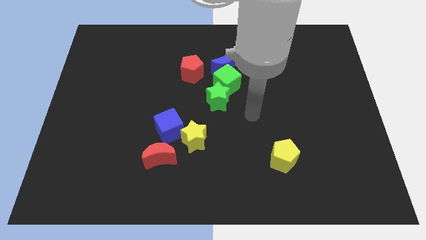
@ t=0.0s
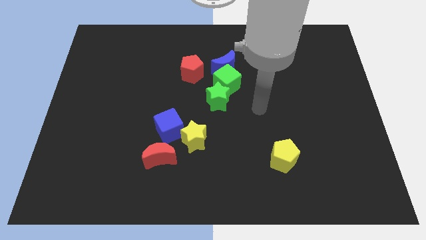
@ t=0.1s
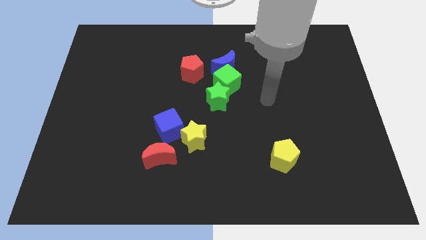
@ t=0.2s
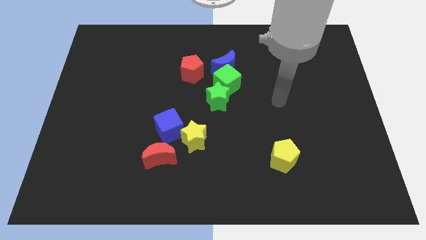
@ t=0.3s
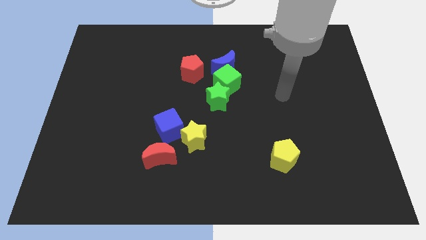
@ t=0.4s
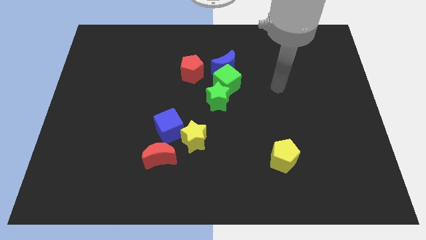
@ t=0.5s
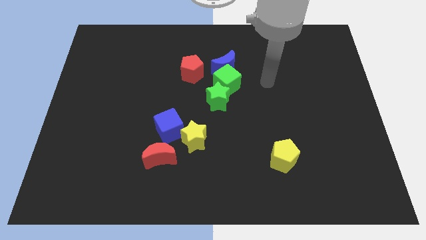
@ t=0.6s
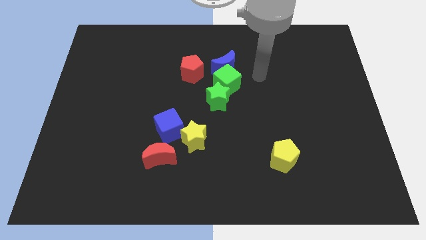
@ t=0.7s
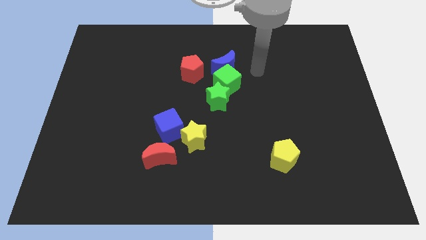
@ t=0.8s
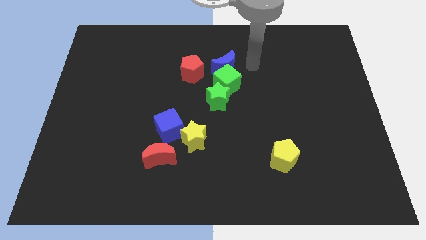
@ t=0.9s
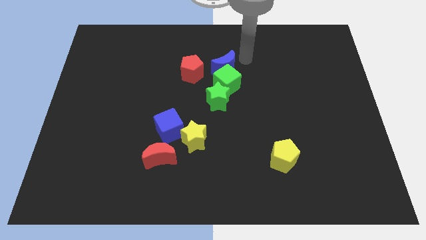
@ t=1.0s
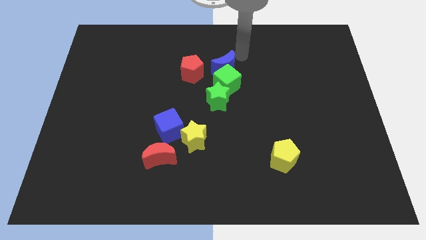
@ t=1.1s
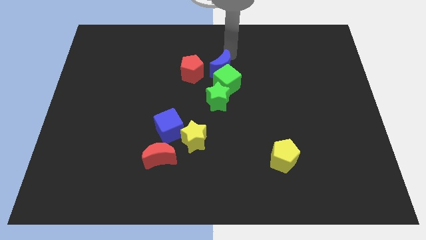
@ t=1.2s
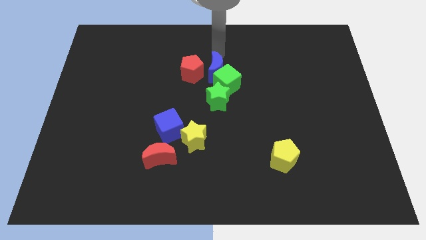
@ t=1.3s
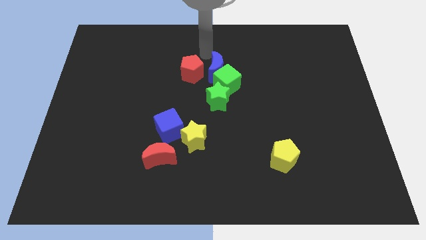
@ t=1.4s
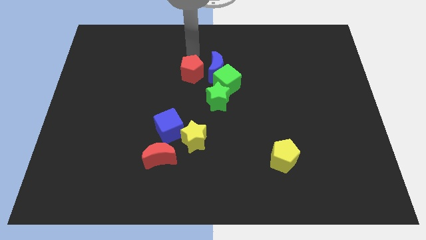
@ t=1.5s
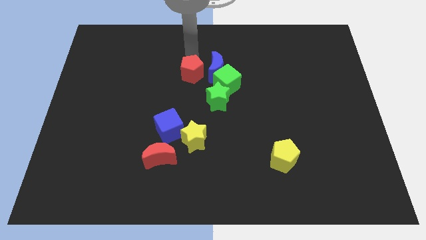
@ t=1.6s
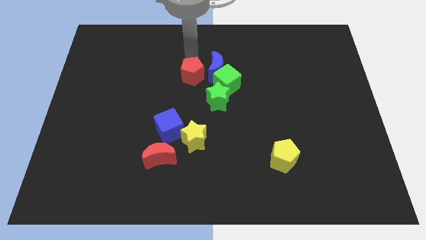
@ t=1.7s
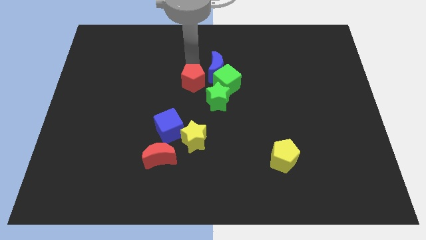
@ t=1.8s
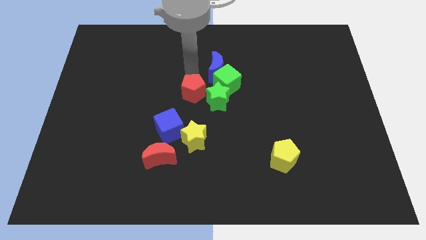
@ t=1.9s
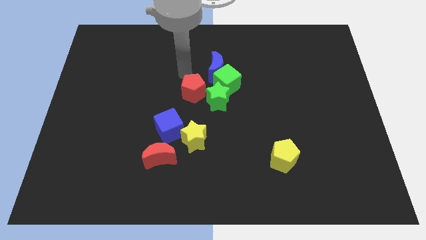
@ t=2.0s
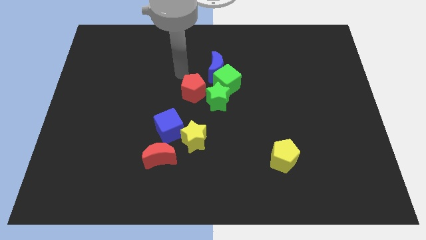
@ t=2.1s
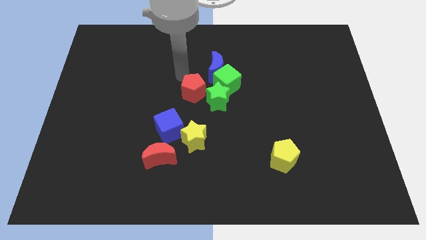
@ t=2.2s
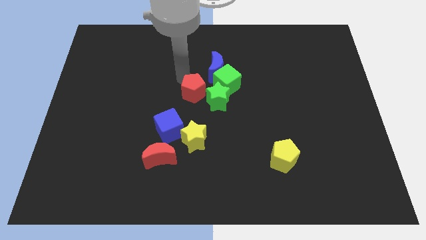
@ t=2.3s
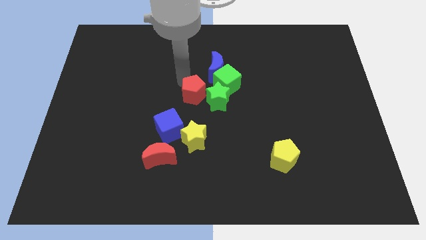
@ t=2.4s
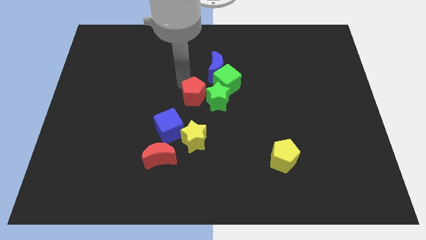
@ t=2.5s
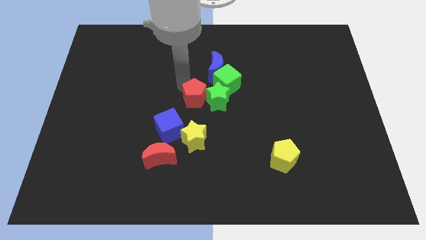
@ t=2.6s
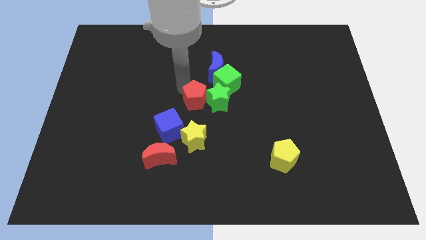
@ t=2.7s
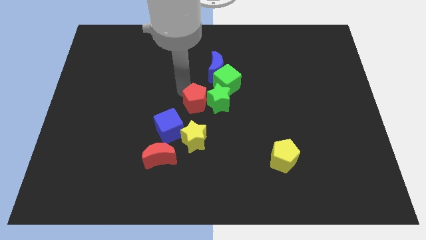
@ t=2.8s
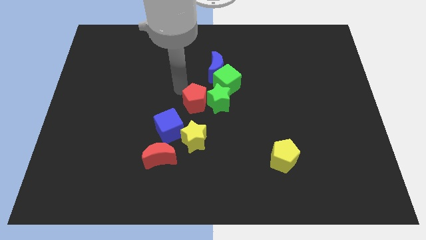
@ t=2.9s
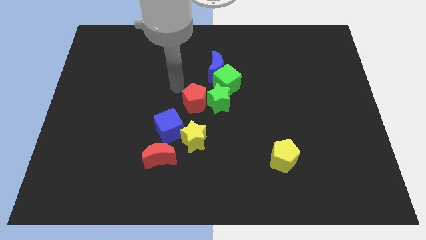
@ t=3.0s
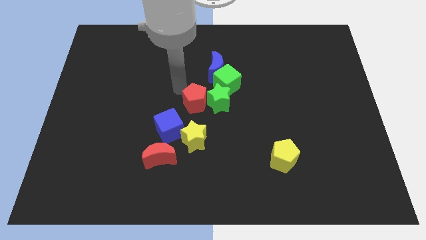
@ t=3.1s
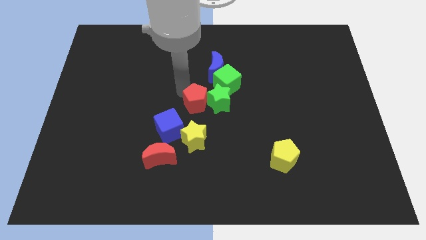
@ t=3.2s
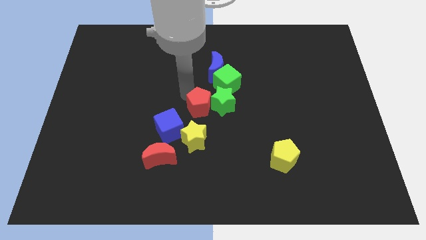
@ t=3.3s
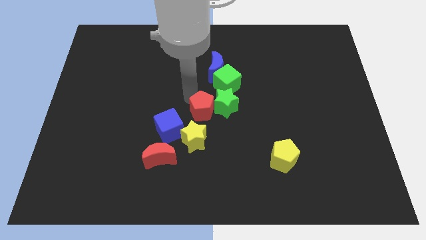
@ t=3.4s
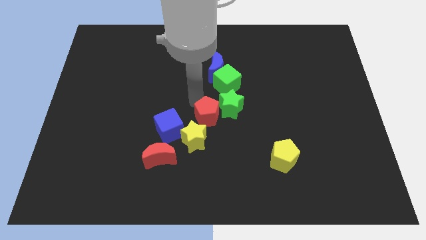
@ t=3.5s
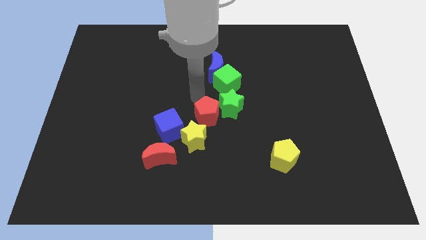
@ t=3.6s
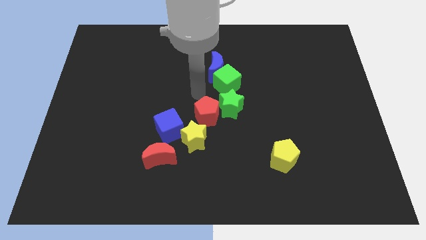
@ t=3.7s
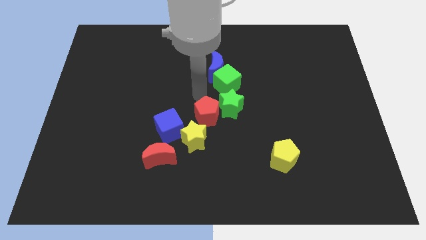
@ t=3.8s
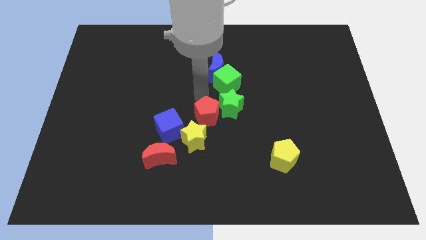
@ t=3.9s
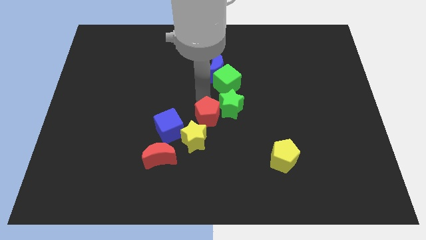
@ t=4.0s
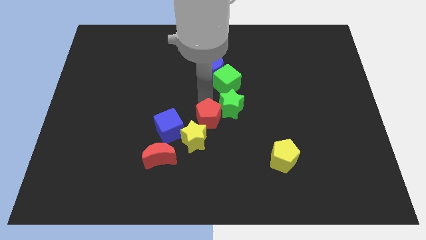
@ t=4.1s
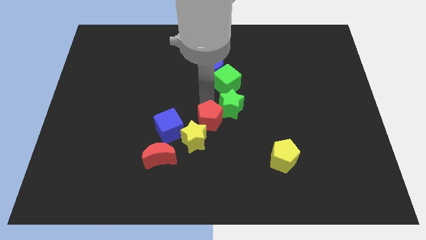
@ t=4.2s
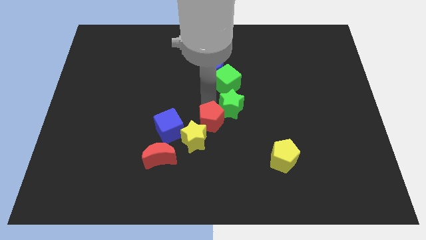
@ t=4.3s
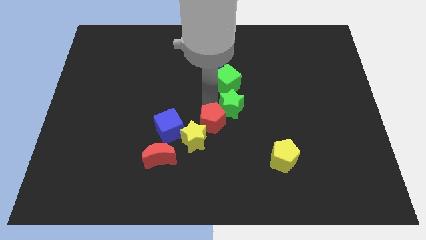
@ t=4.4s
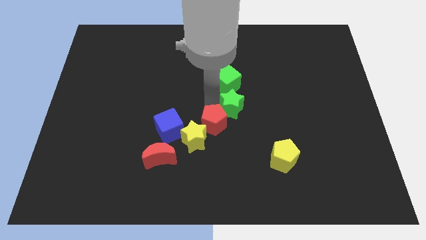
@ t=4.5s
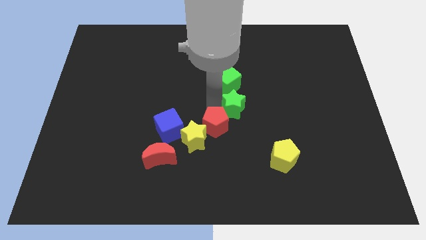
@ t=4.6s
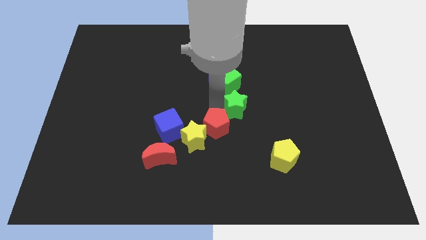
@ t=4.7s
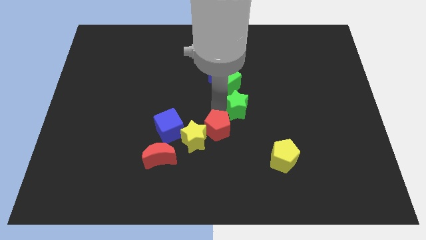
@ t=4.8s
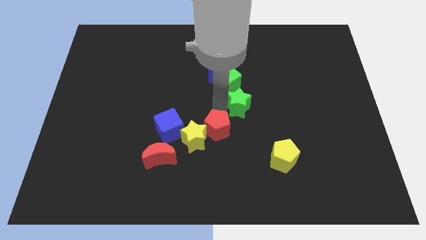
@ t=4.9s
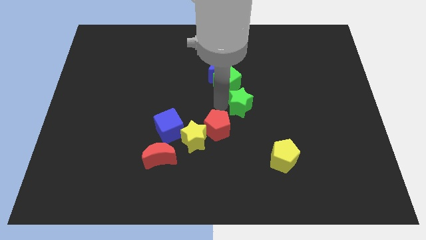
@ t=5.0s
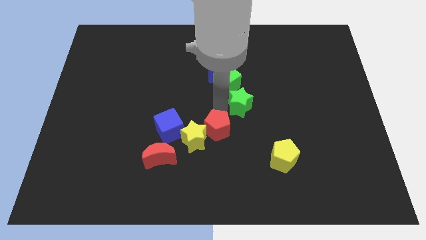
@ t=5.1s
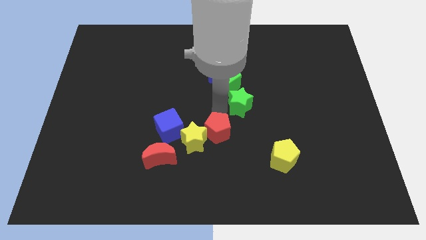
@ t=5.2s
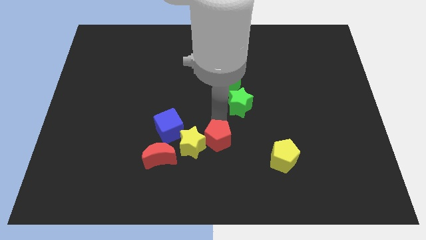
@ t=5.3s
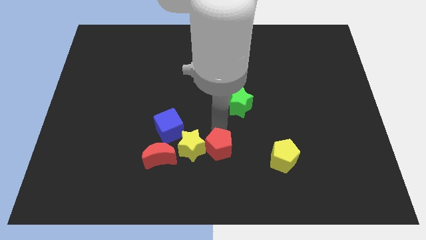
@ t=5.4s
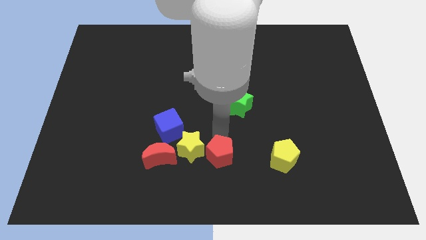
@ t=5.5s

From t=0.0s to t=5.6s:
push the red pentagon to the bottom

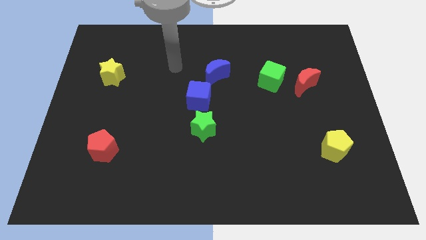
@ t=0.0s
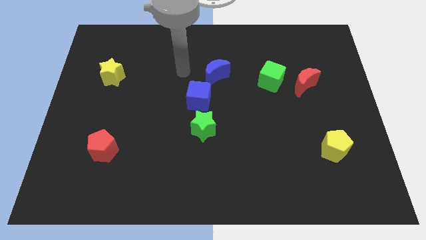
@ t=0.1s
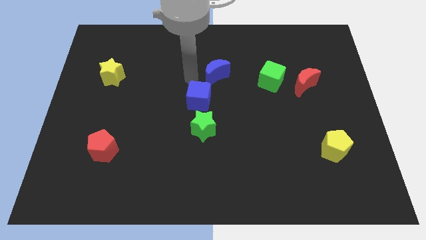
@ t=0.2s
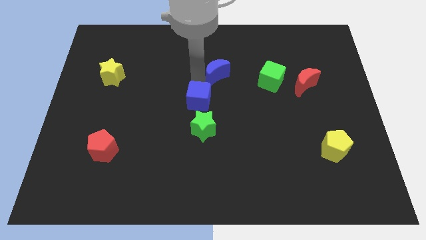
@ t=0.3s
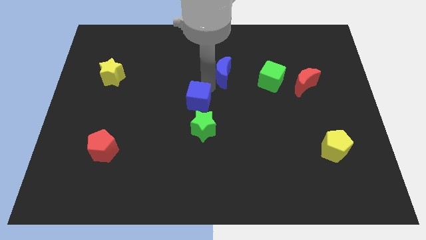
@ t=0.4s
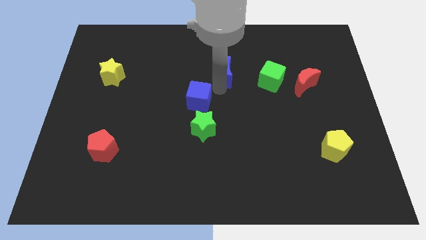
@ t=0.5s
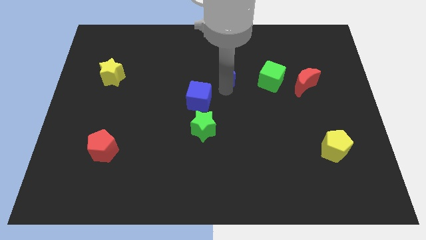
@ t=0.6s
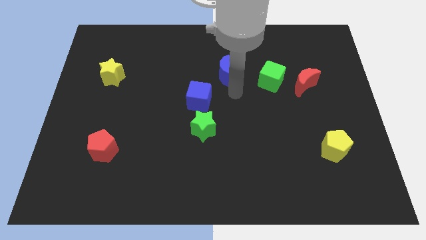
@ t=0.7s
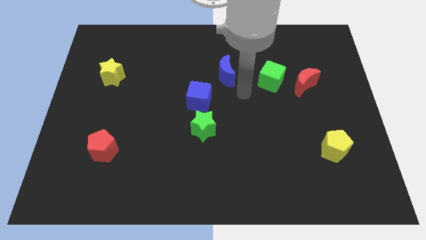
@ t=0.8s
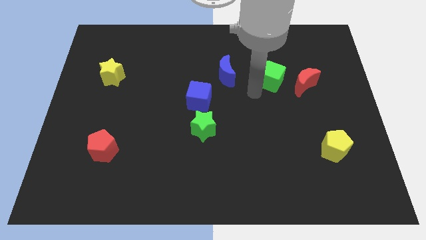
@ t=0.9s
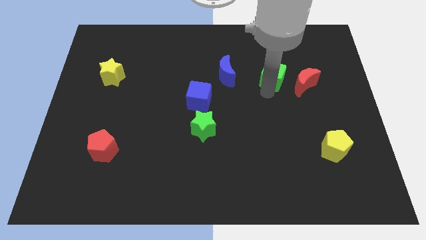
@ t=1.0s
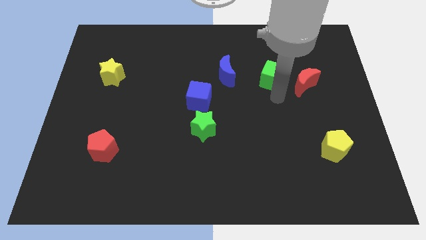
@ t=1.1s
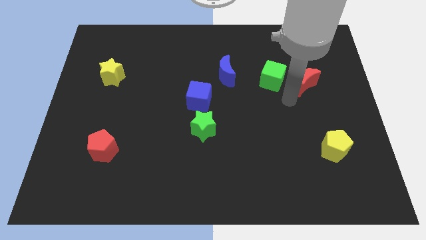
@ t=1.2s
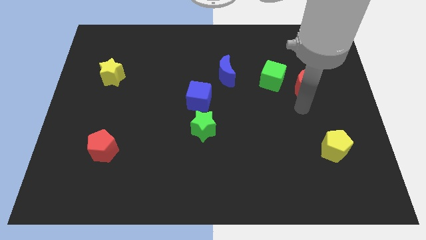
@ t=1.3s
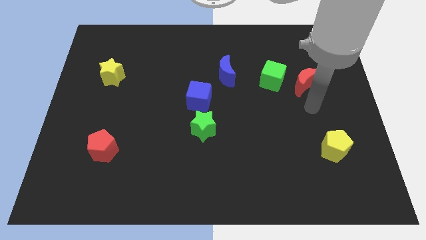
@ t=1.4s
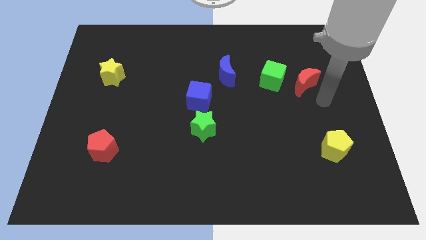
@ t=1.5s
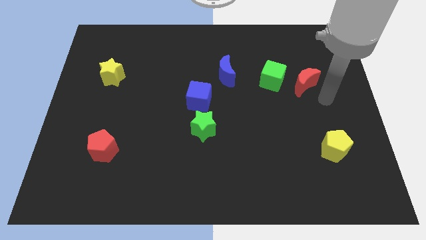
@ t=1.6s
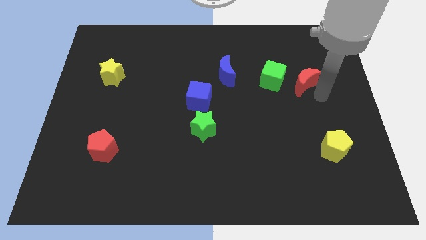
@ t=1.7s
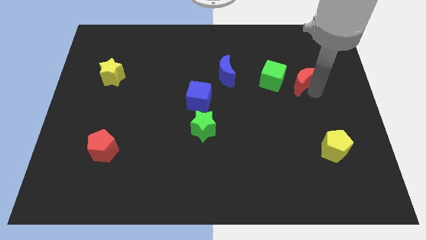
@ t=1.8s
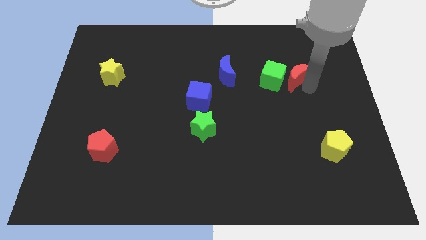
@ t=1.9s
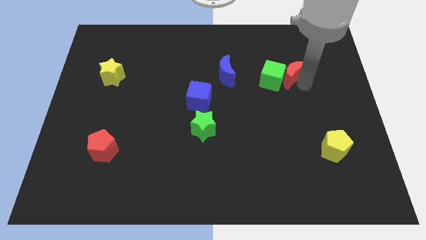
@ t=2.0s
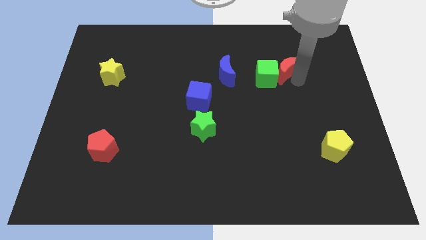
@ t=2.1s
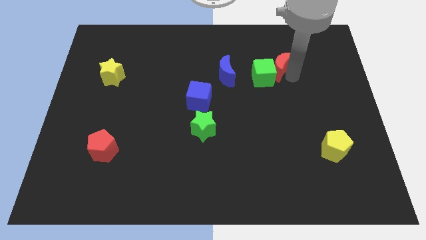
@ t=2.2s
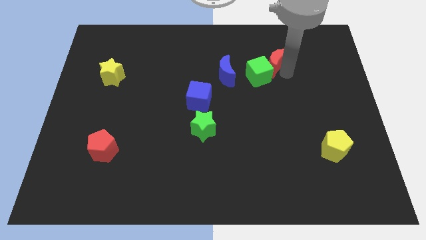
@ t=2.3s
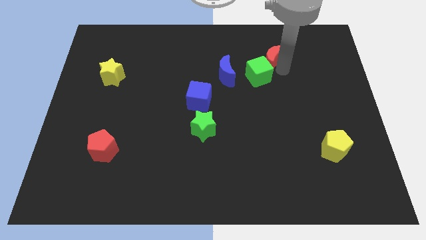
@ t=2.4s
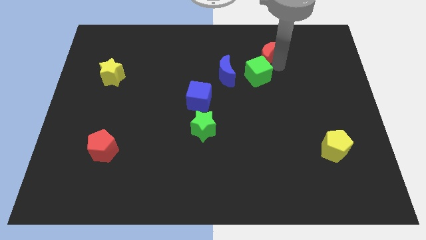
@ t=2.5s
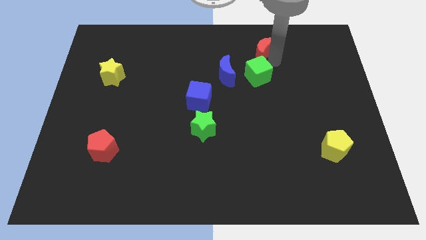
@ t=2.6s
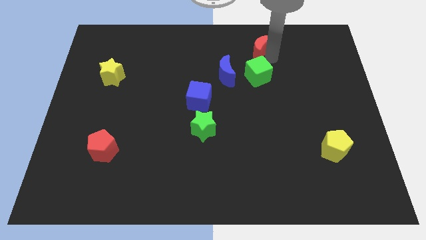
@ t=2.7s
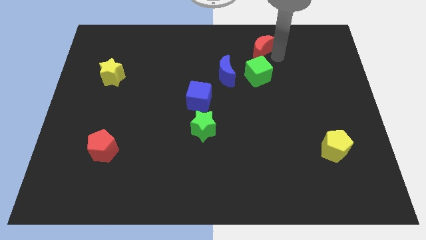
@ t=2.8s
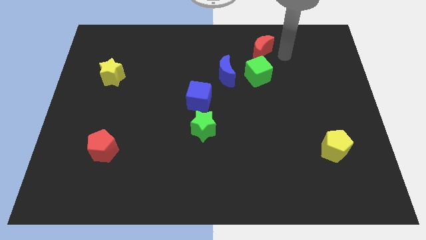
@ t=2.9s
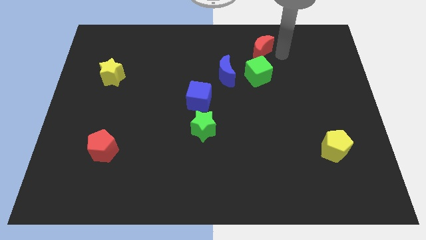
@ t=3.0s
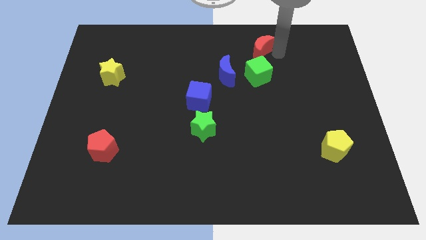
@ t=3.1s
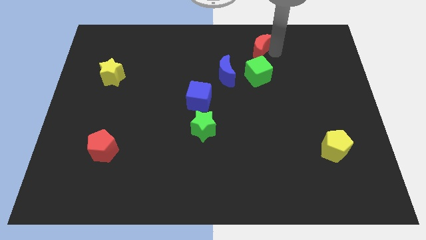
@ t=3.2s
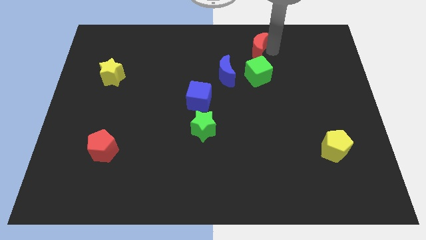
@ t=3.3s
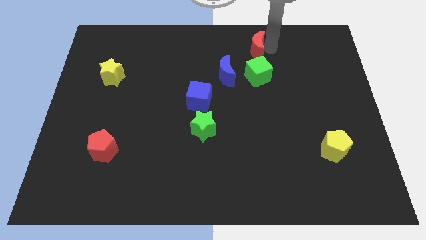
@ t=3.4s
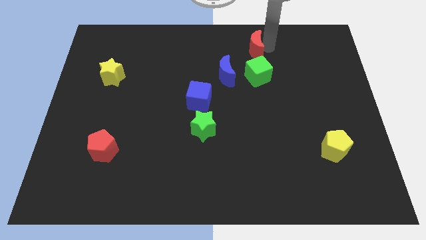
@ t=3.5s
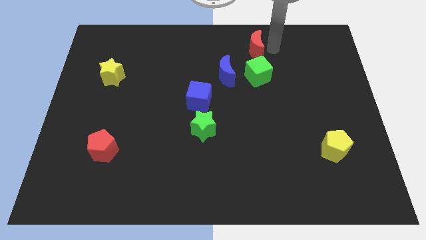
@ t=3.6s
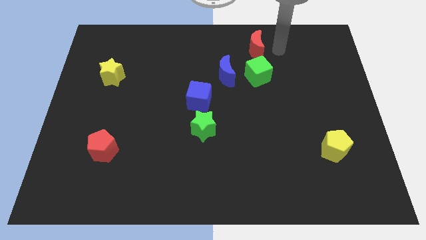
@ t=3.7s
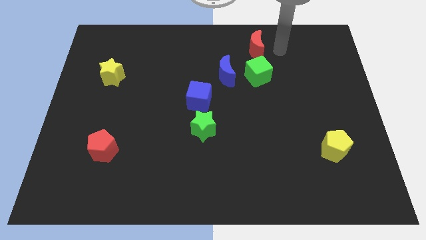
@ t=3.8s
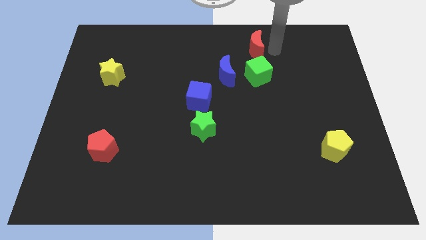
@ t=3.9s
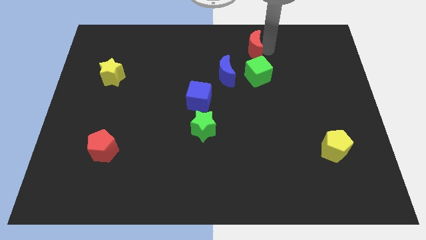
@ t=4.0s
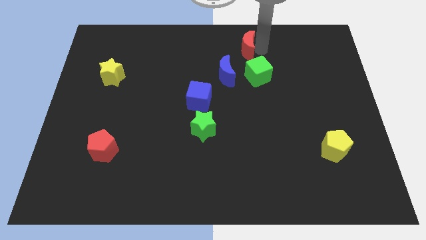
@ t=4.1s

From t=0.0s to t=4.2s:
slide the red moon to the top side
